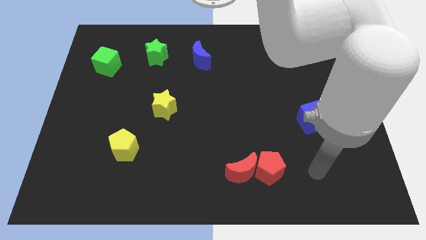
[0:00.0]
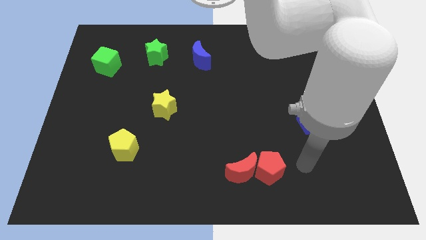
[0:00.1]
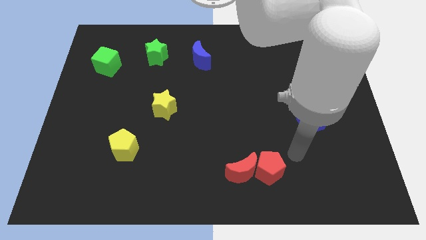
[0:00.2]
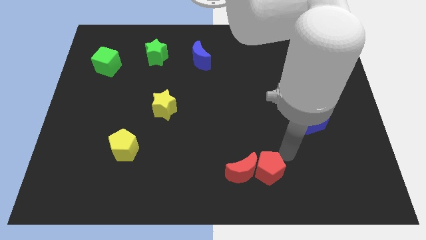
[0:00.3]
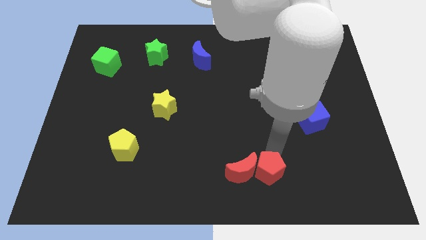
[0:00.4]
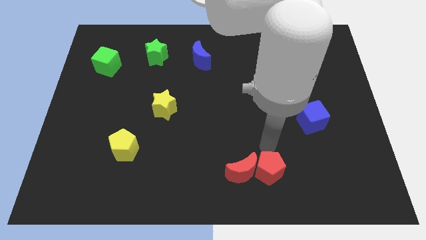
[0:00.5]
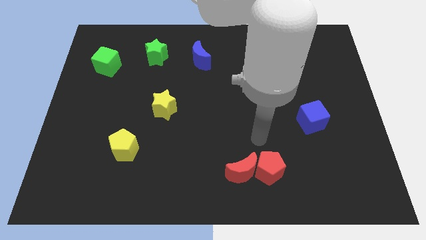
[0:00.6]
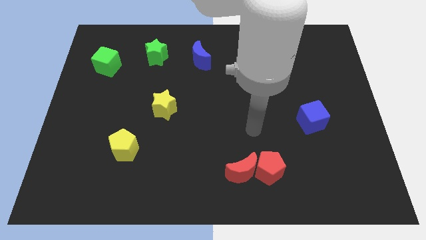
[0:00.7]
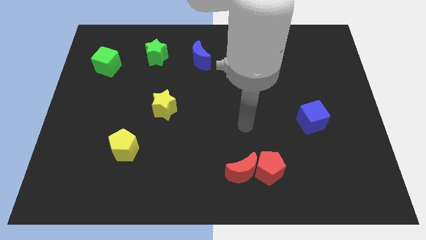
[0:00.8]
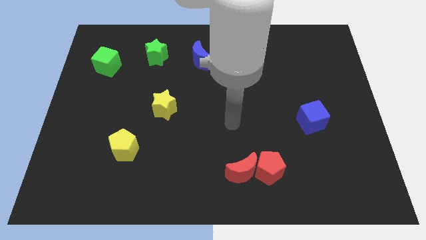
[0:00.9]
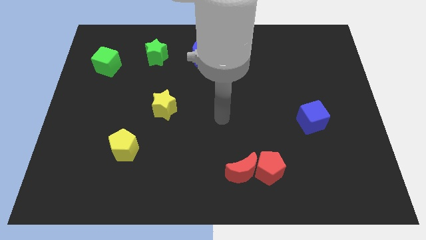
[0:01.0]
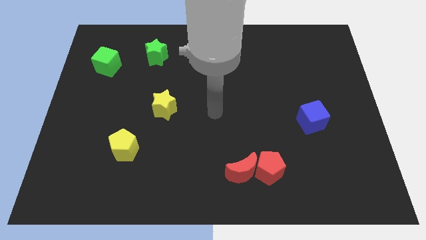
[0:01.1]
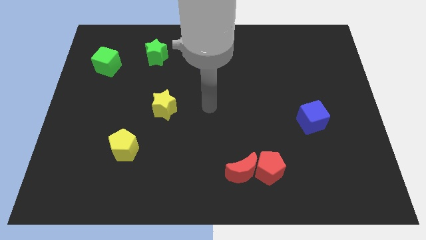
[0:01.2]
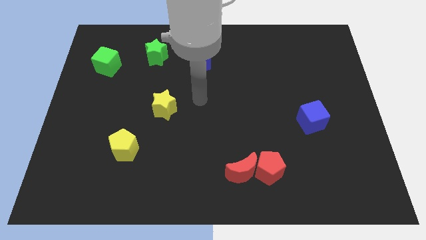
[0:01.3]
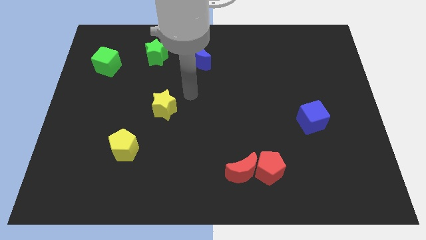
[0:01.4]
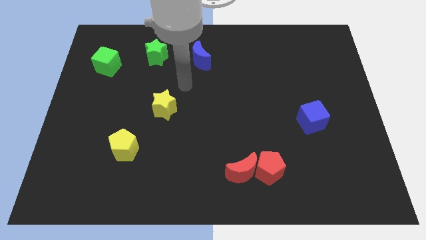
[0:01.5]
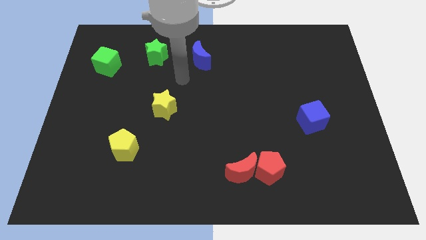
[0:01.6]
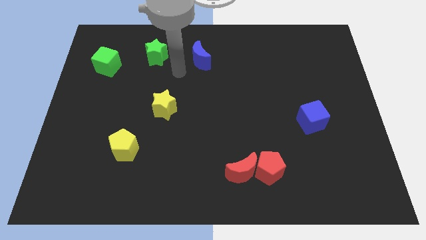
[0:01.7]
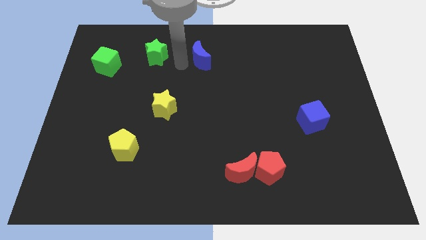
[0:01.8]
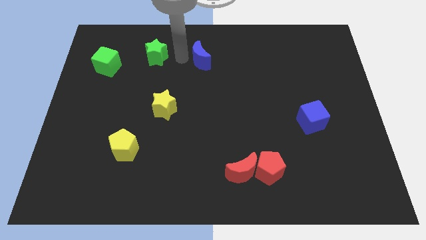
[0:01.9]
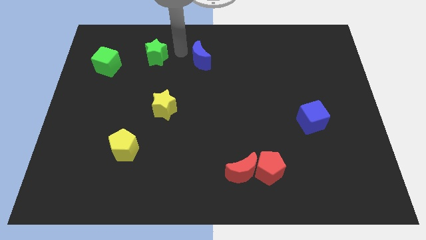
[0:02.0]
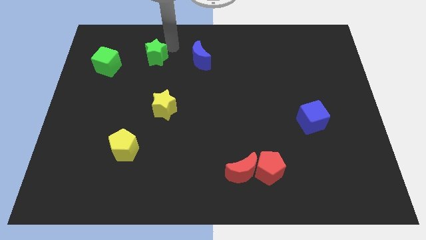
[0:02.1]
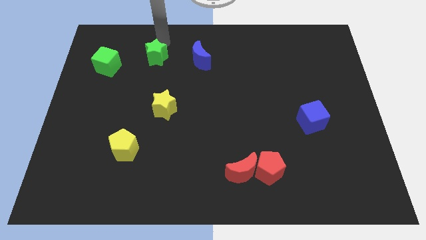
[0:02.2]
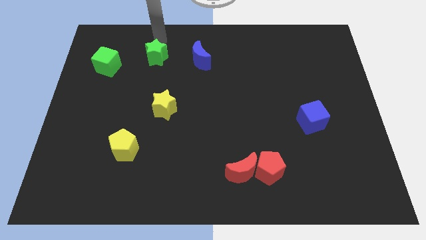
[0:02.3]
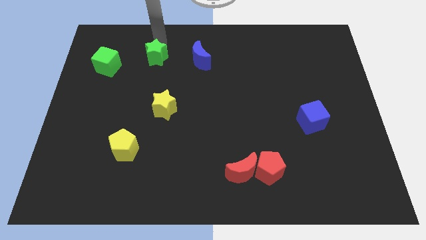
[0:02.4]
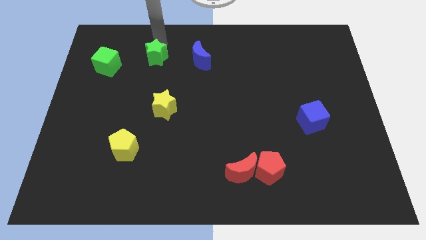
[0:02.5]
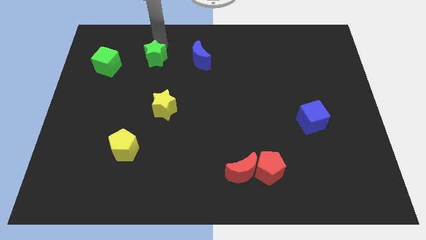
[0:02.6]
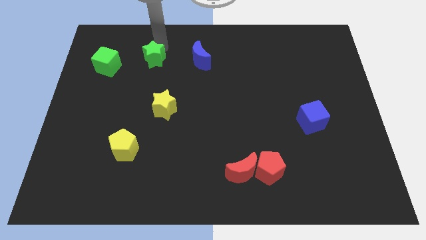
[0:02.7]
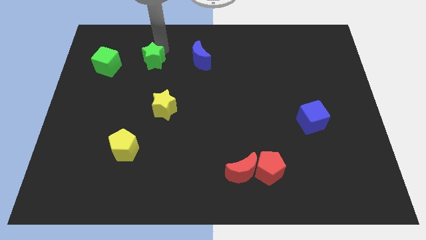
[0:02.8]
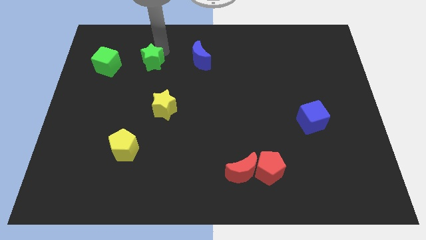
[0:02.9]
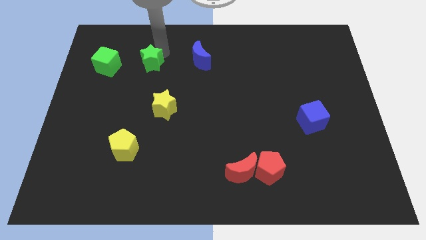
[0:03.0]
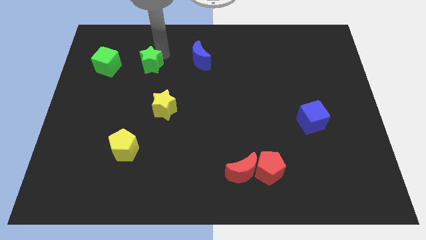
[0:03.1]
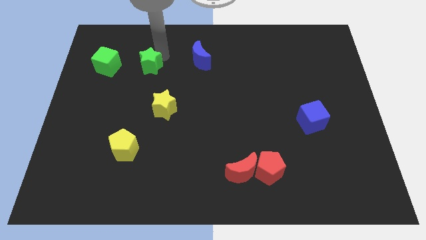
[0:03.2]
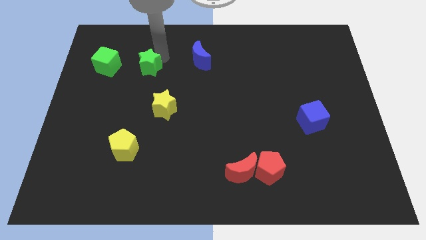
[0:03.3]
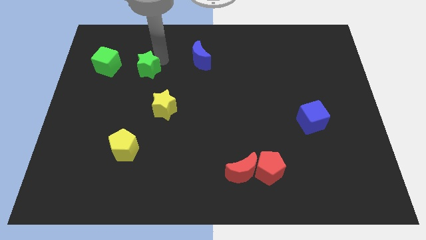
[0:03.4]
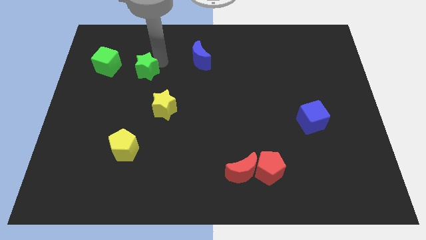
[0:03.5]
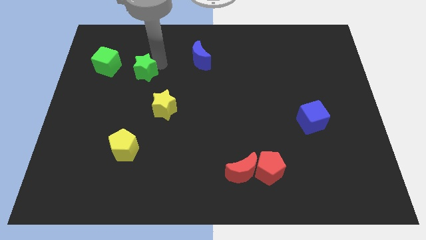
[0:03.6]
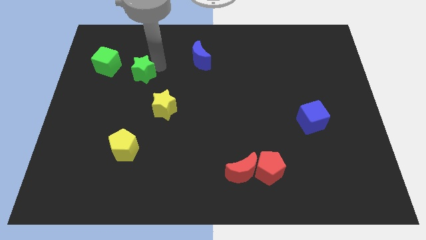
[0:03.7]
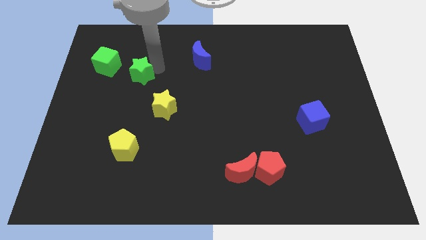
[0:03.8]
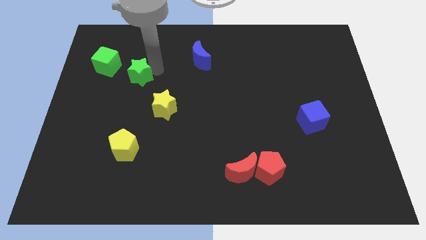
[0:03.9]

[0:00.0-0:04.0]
push the green star downwards somewhat

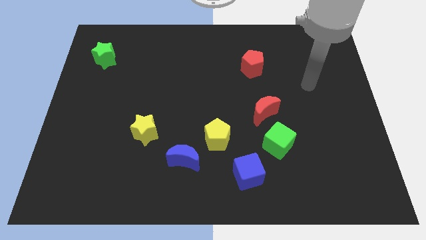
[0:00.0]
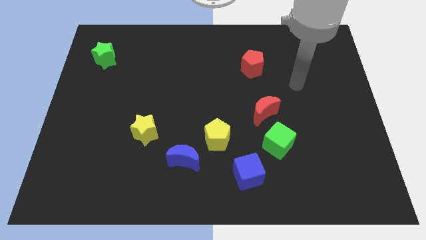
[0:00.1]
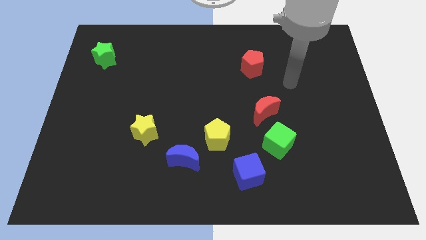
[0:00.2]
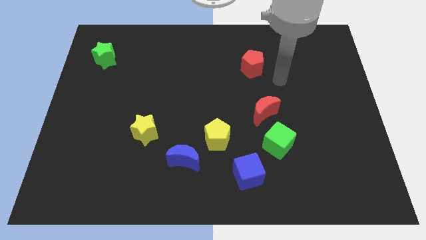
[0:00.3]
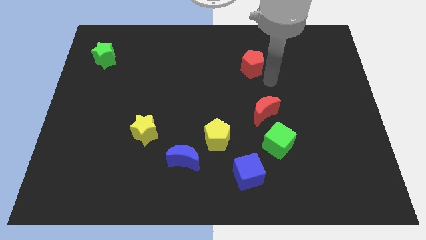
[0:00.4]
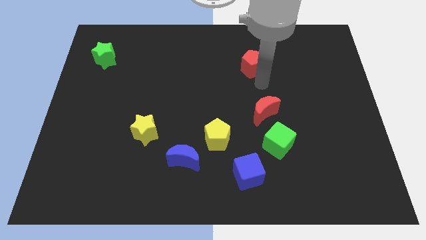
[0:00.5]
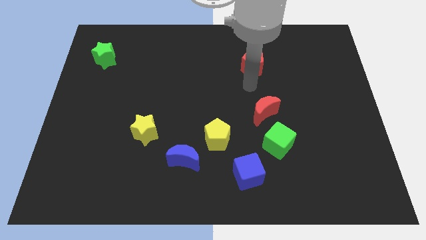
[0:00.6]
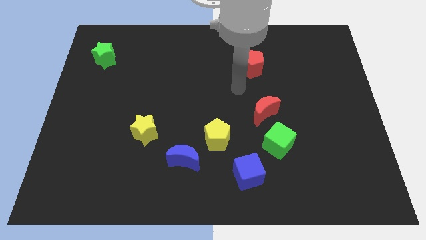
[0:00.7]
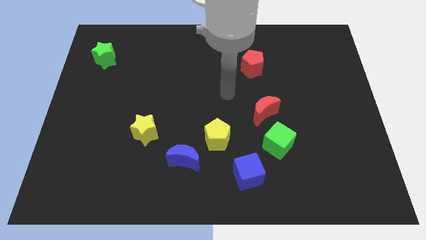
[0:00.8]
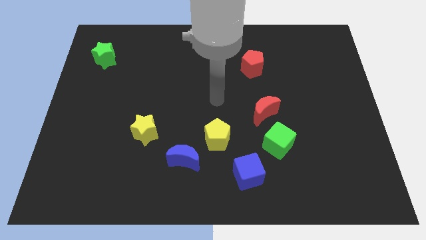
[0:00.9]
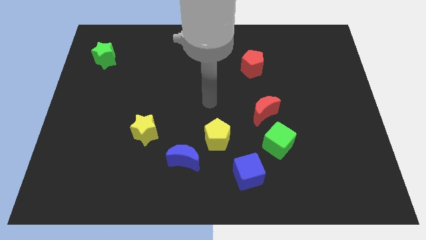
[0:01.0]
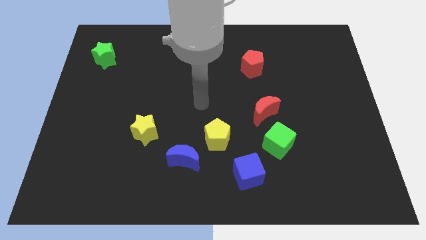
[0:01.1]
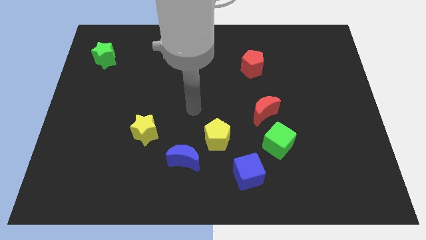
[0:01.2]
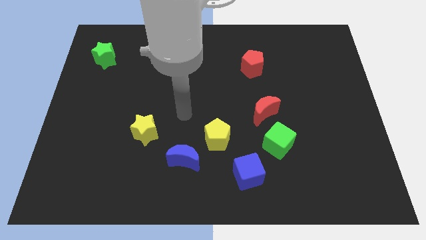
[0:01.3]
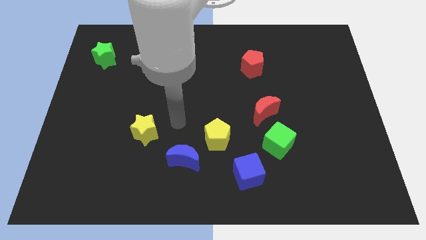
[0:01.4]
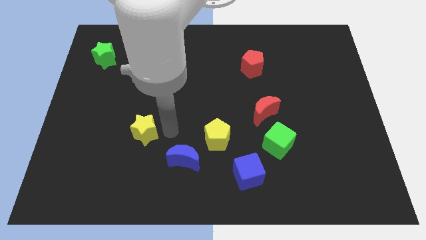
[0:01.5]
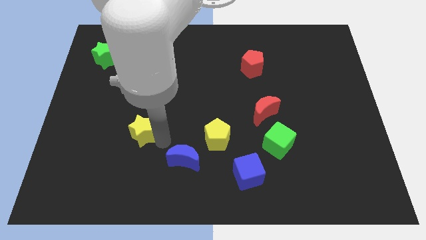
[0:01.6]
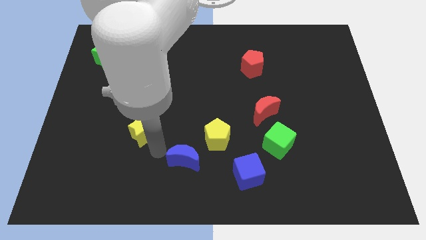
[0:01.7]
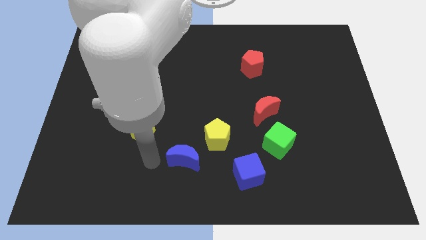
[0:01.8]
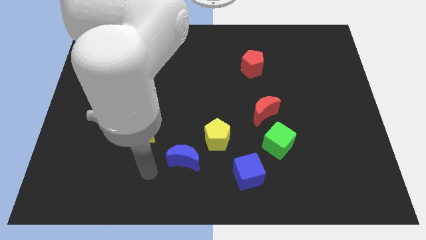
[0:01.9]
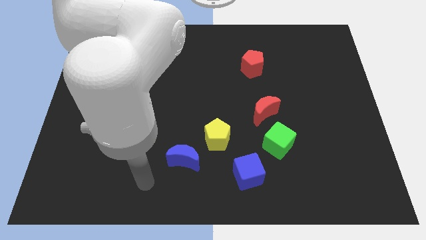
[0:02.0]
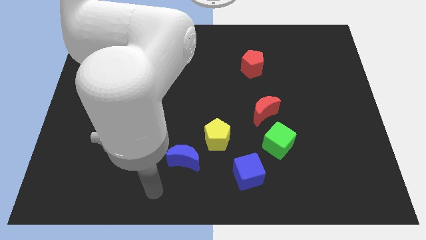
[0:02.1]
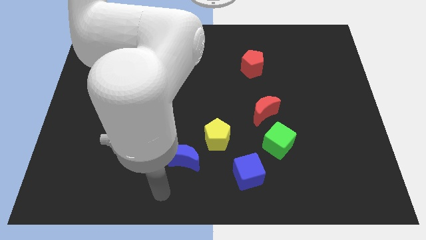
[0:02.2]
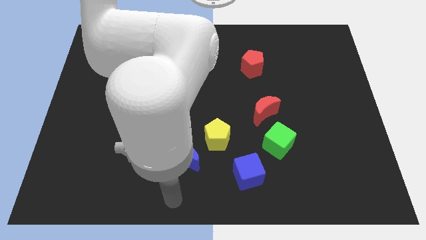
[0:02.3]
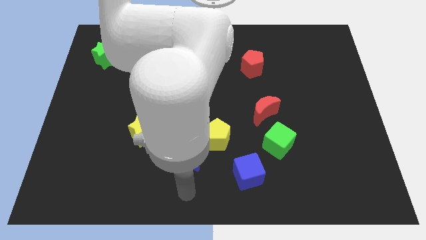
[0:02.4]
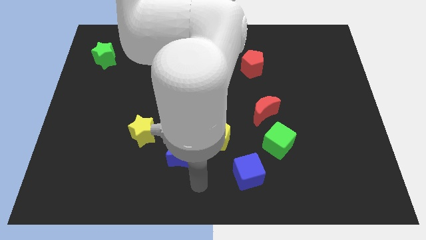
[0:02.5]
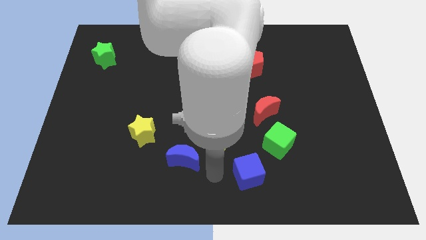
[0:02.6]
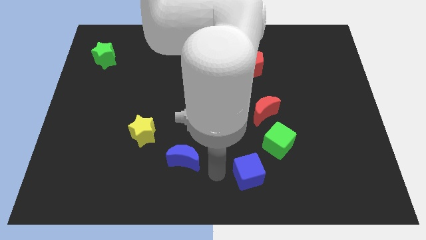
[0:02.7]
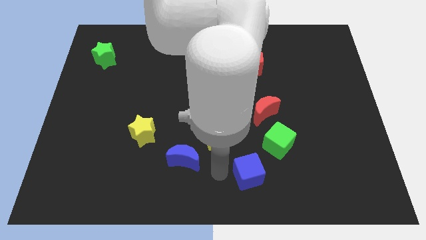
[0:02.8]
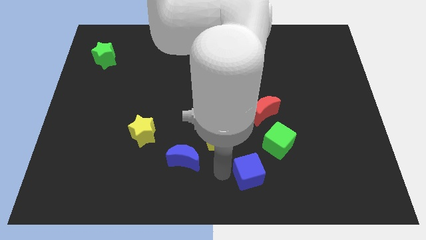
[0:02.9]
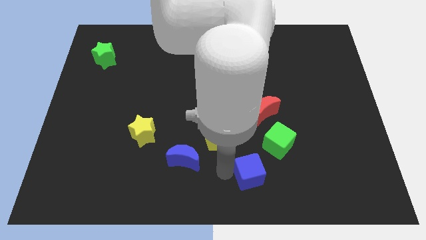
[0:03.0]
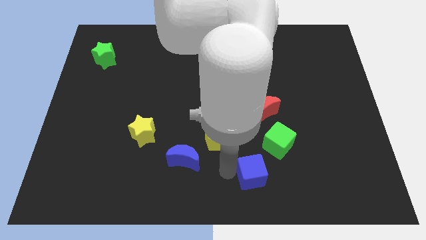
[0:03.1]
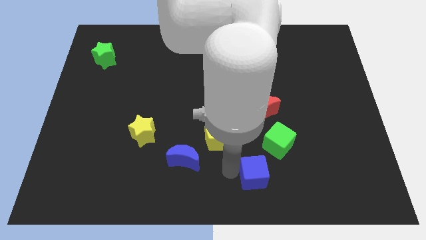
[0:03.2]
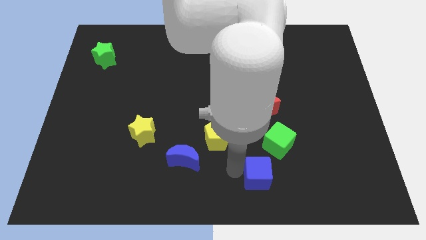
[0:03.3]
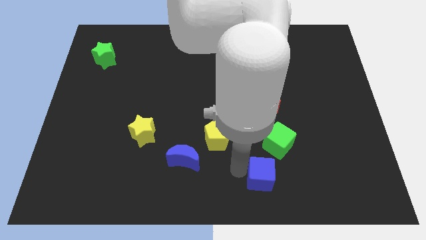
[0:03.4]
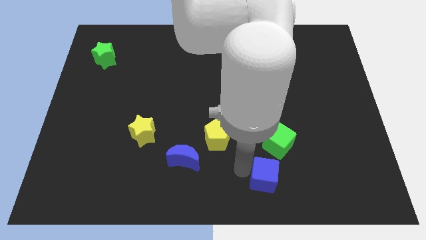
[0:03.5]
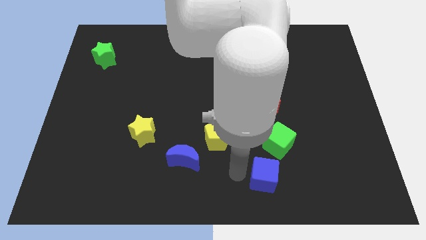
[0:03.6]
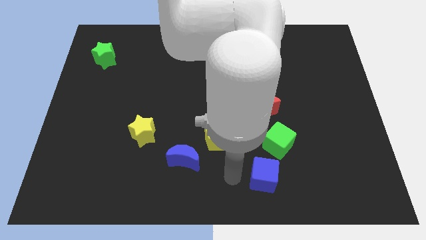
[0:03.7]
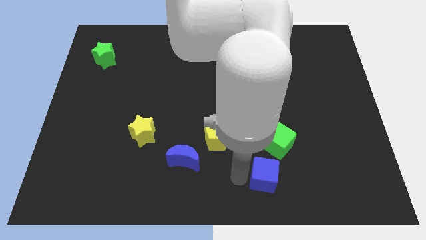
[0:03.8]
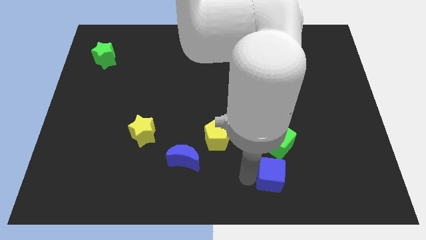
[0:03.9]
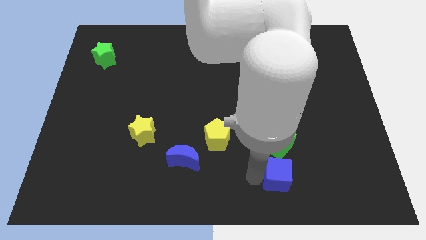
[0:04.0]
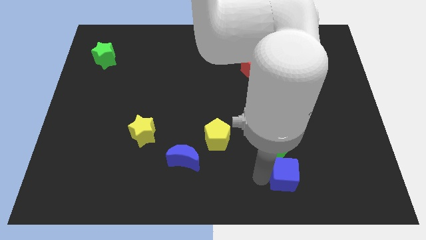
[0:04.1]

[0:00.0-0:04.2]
slightly move the blue cube right

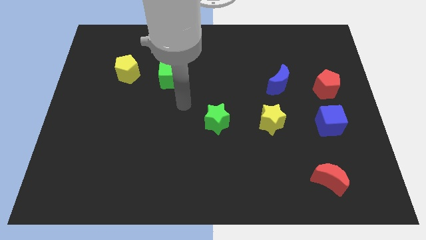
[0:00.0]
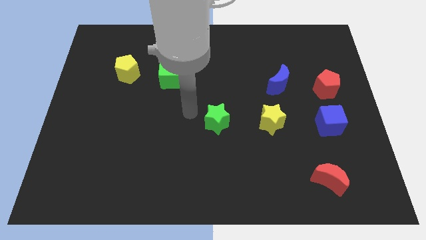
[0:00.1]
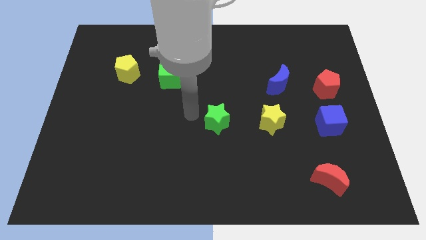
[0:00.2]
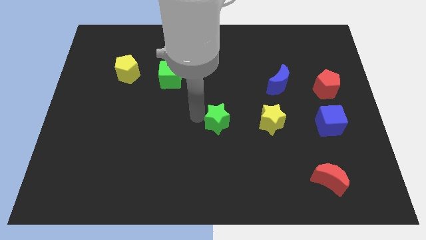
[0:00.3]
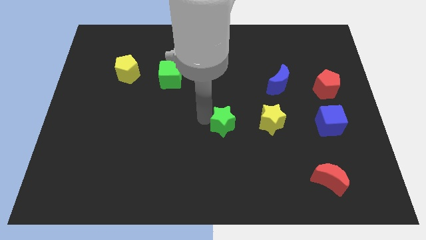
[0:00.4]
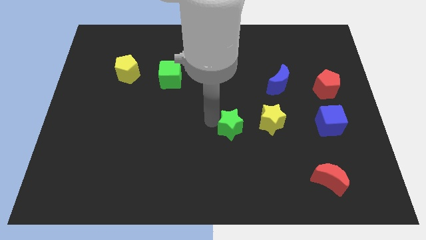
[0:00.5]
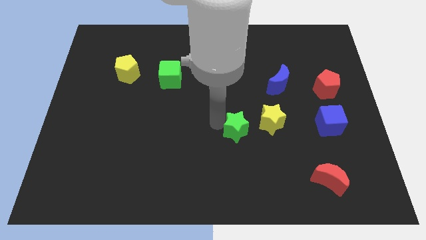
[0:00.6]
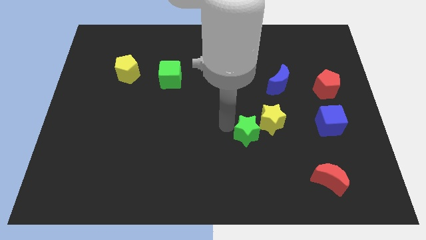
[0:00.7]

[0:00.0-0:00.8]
slightly slide the green star down and then right
